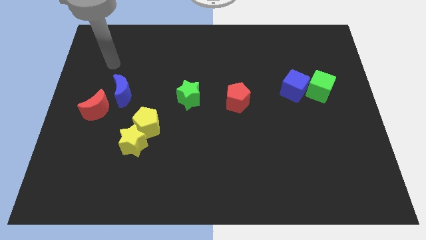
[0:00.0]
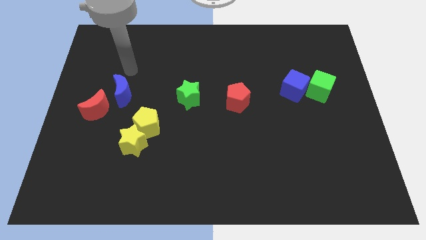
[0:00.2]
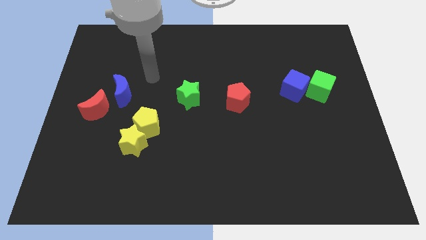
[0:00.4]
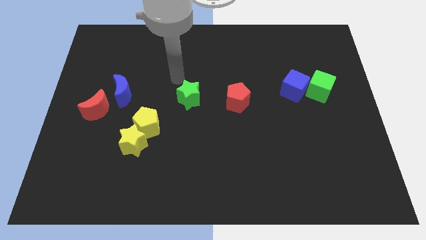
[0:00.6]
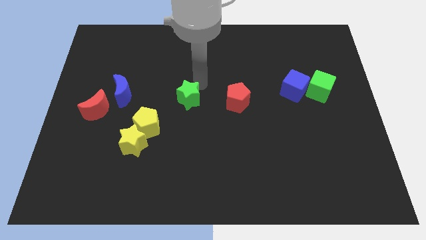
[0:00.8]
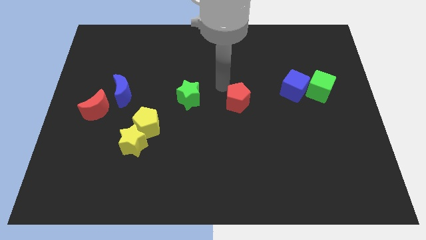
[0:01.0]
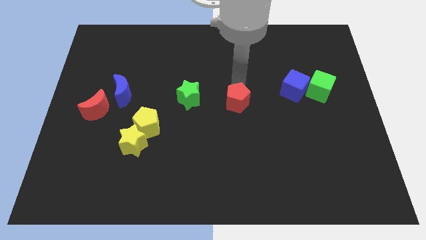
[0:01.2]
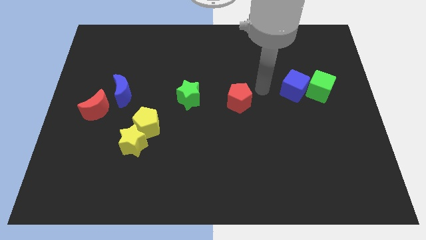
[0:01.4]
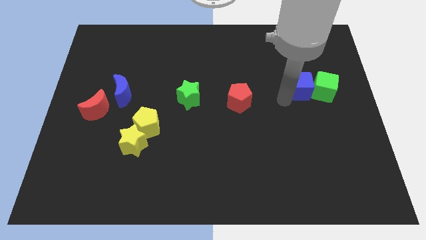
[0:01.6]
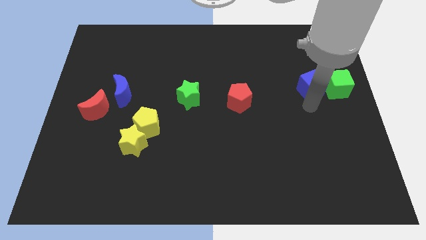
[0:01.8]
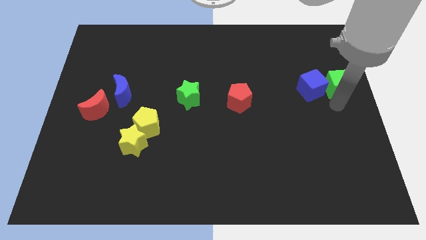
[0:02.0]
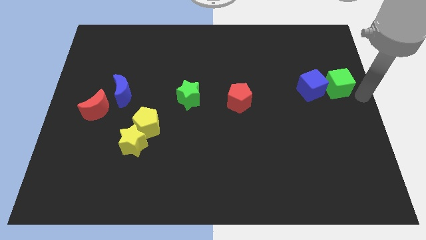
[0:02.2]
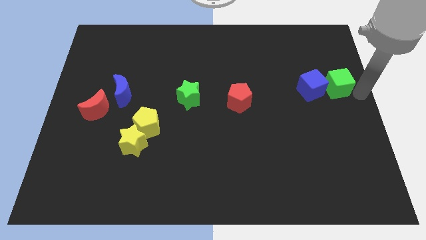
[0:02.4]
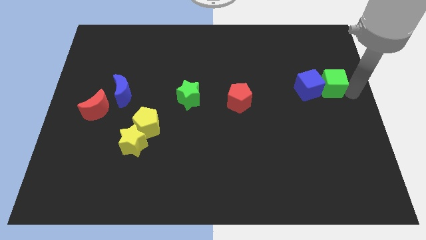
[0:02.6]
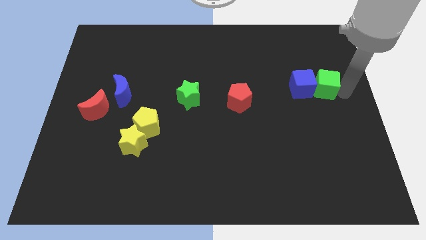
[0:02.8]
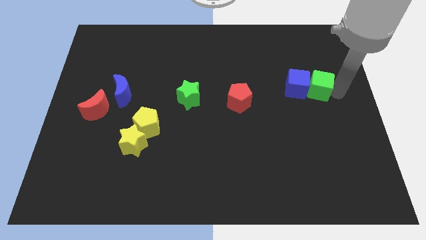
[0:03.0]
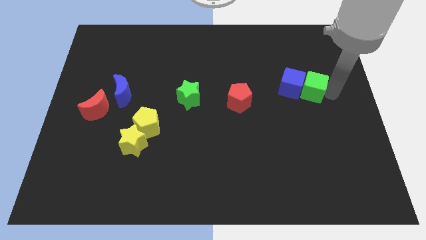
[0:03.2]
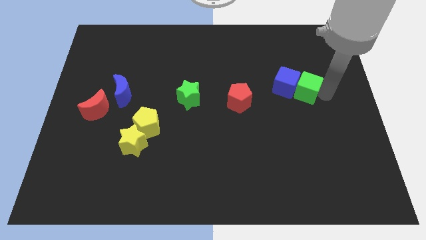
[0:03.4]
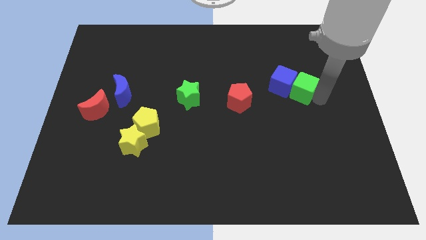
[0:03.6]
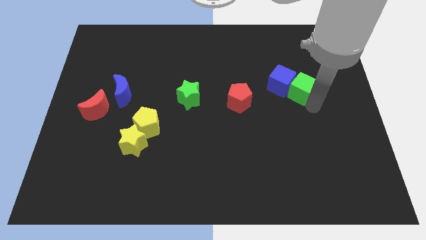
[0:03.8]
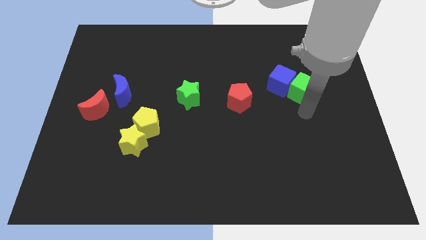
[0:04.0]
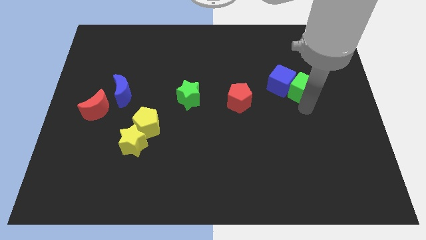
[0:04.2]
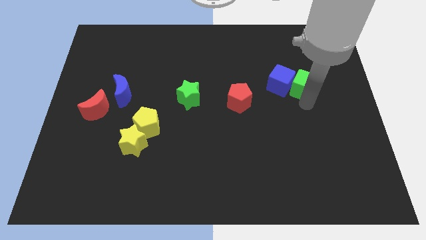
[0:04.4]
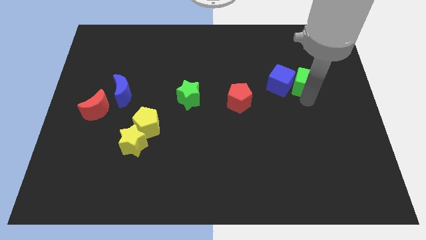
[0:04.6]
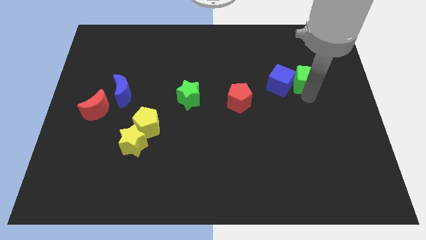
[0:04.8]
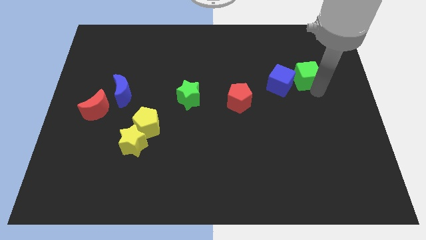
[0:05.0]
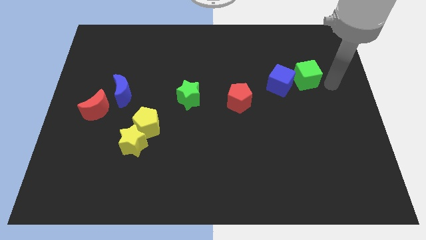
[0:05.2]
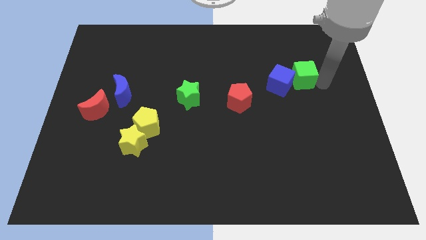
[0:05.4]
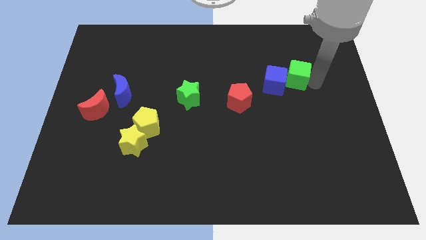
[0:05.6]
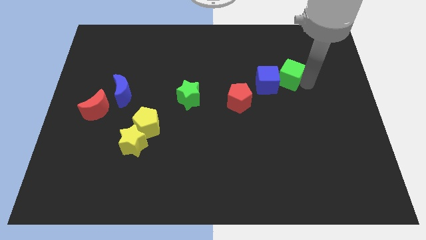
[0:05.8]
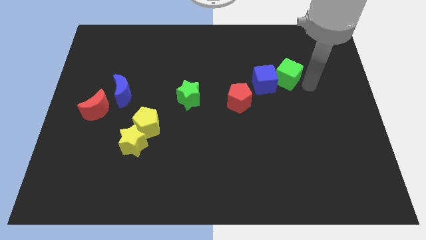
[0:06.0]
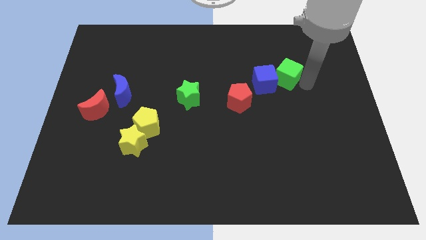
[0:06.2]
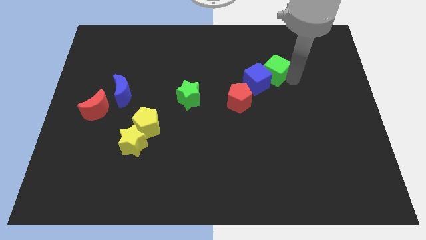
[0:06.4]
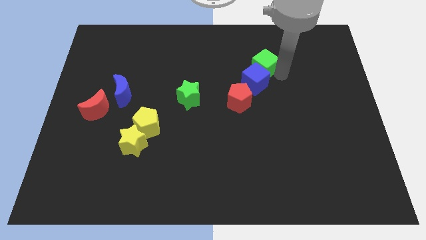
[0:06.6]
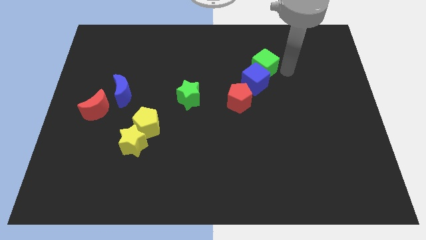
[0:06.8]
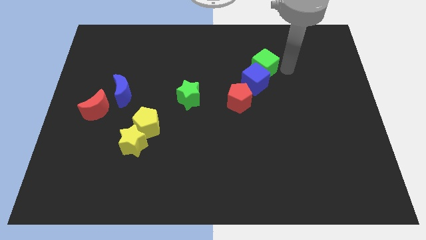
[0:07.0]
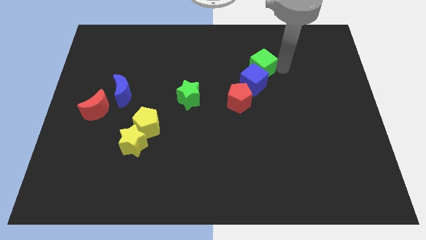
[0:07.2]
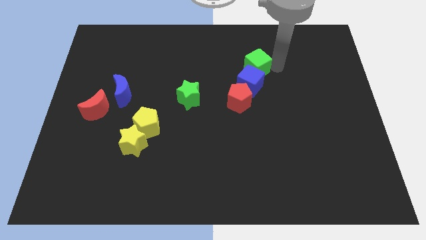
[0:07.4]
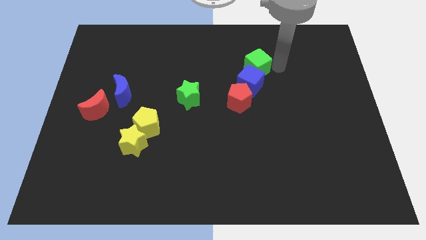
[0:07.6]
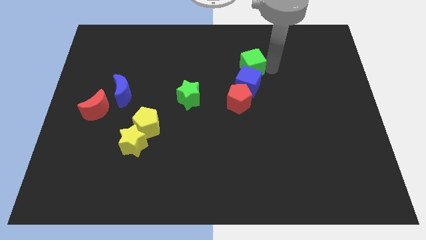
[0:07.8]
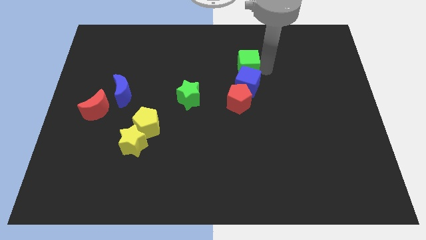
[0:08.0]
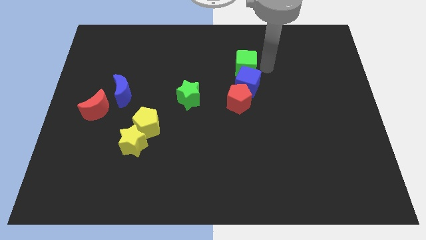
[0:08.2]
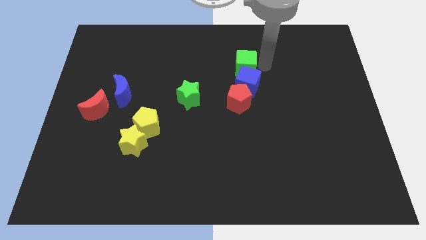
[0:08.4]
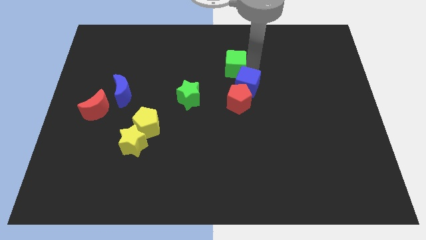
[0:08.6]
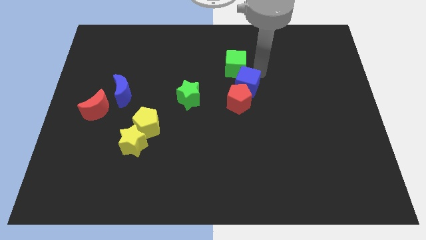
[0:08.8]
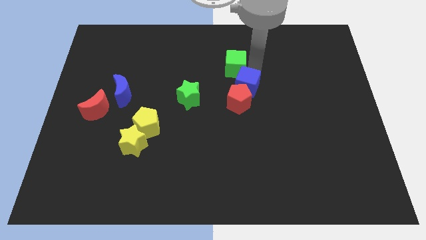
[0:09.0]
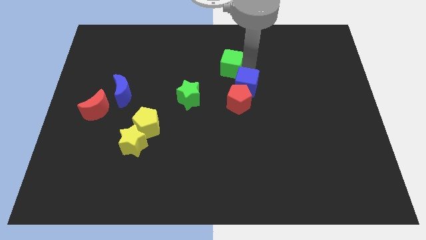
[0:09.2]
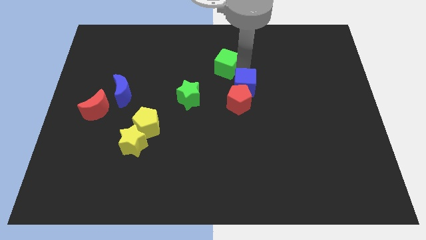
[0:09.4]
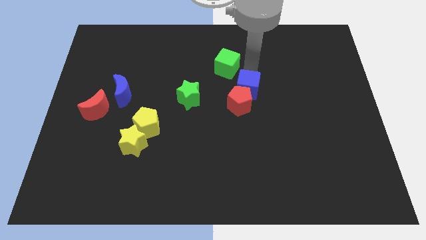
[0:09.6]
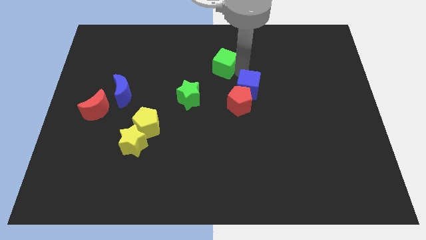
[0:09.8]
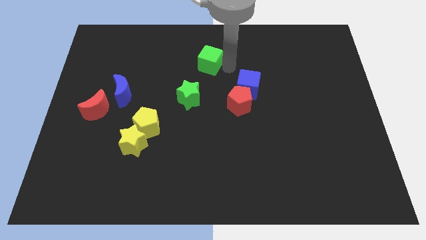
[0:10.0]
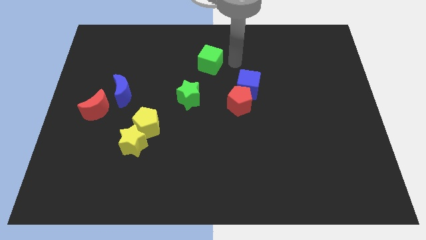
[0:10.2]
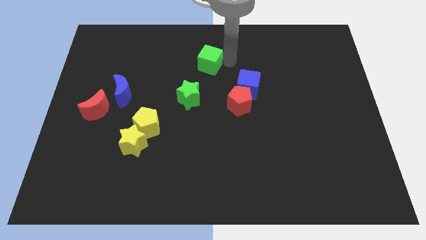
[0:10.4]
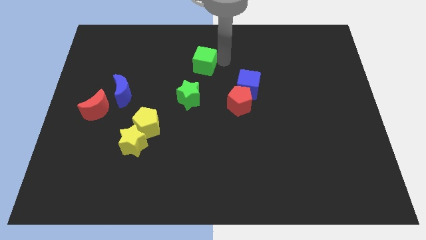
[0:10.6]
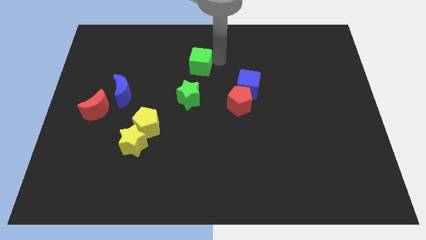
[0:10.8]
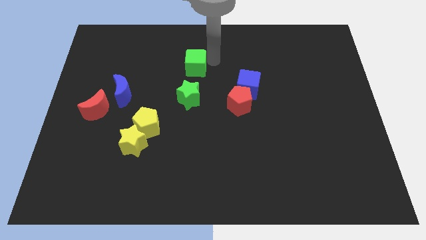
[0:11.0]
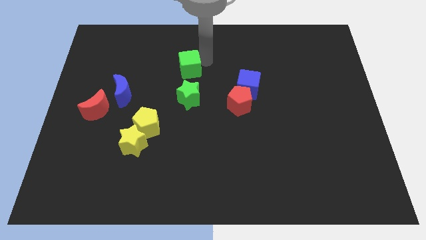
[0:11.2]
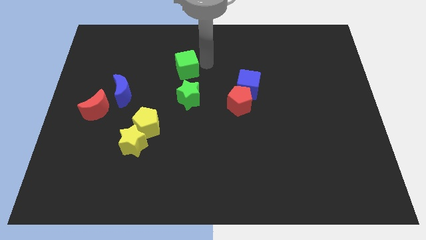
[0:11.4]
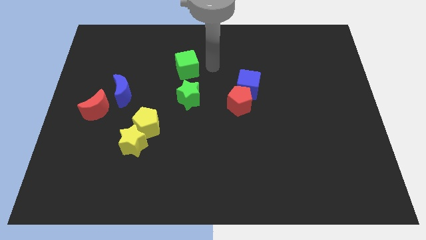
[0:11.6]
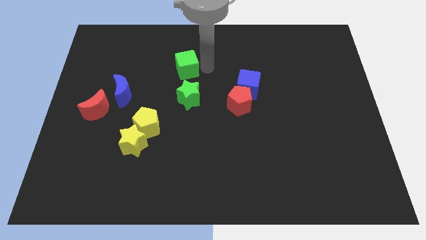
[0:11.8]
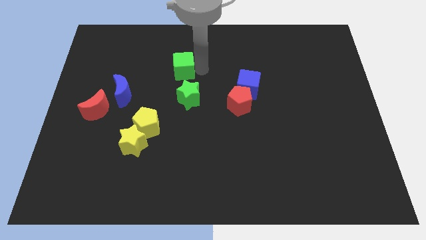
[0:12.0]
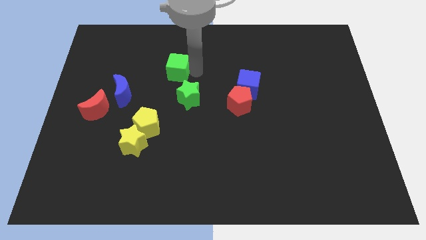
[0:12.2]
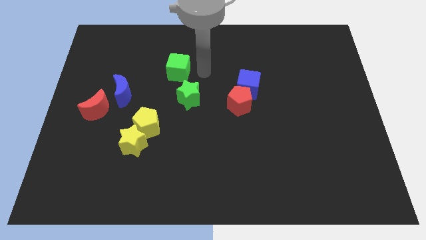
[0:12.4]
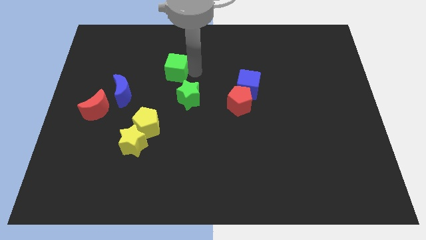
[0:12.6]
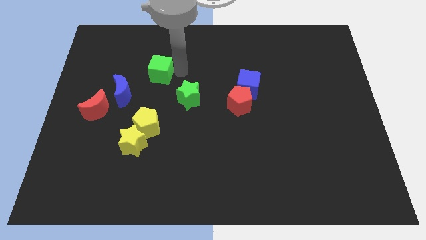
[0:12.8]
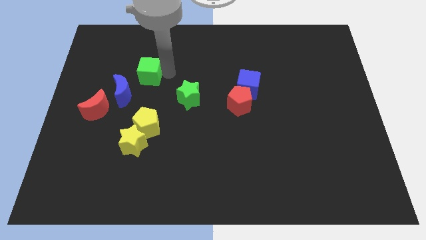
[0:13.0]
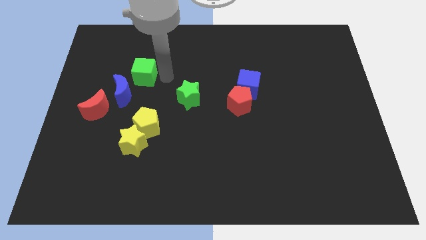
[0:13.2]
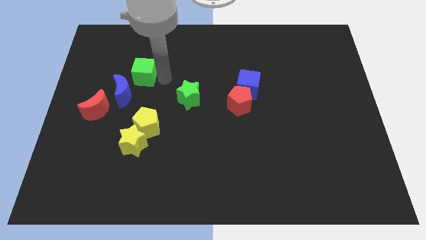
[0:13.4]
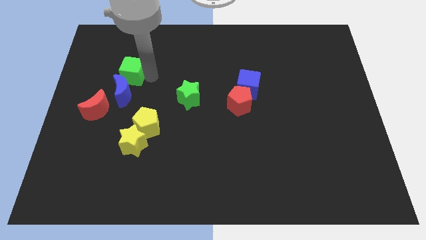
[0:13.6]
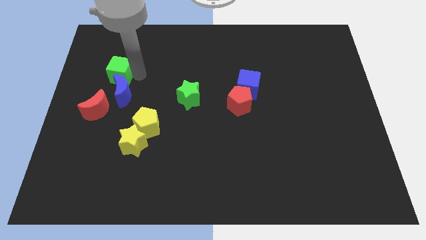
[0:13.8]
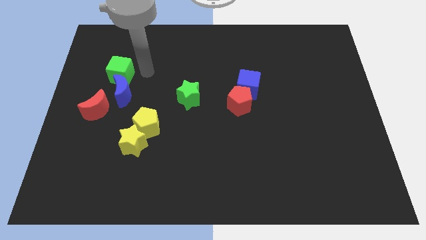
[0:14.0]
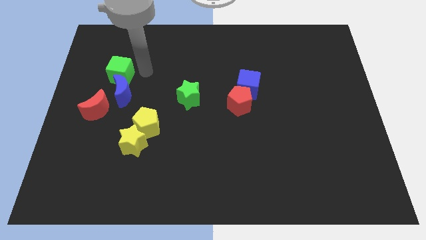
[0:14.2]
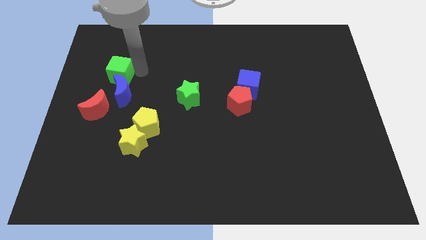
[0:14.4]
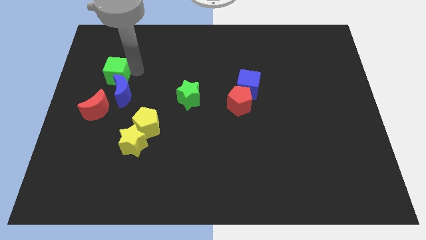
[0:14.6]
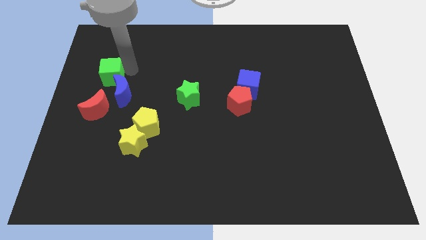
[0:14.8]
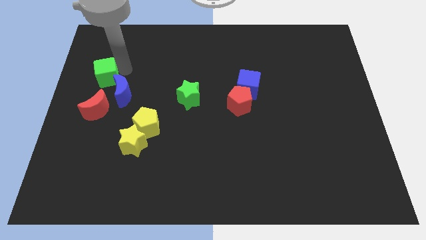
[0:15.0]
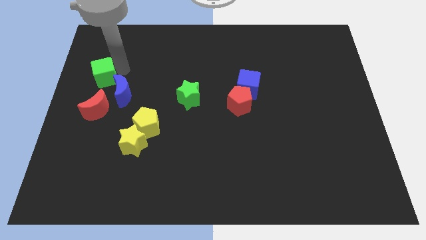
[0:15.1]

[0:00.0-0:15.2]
move the green cube to the center left
